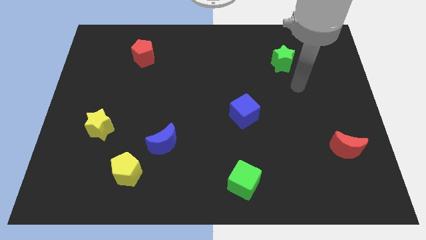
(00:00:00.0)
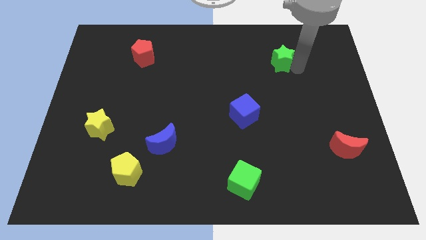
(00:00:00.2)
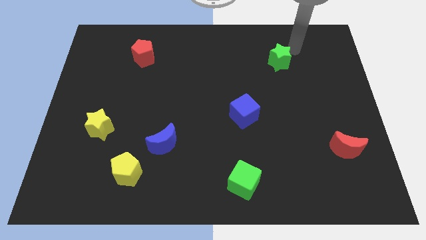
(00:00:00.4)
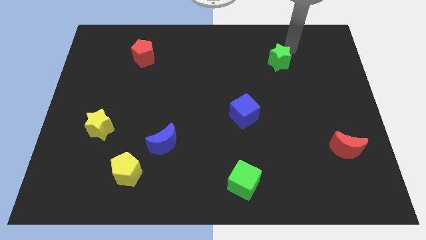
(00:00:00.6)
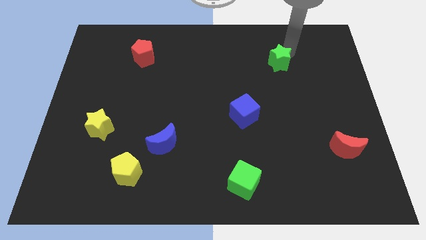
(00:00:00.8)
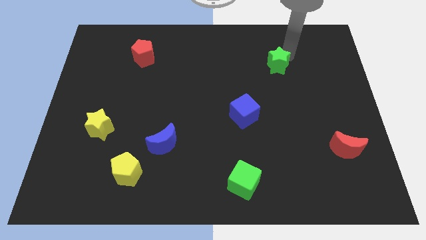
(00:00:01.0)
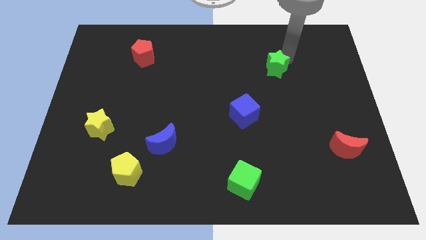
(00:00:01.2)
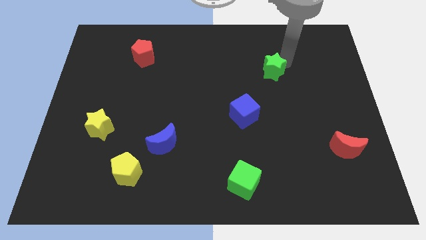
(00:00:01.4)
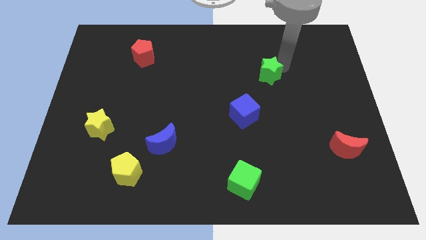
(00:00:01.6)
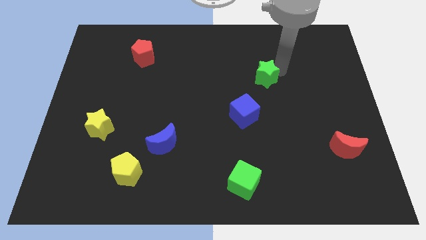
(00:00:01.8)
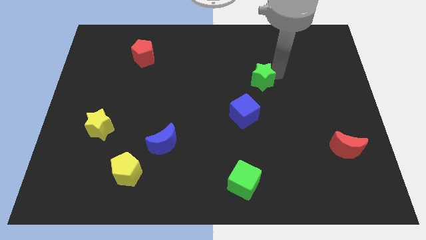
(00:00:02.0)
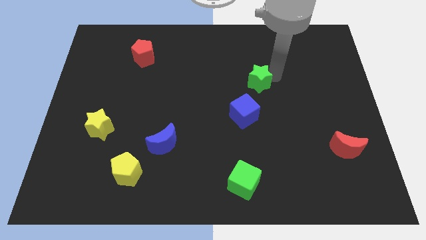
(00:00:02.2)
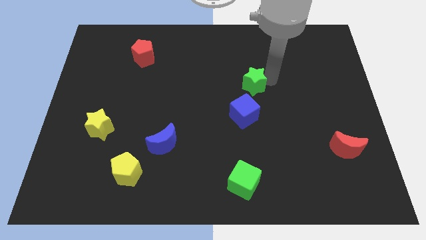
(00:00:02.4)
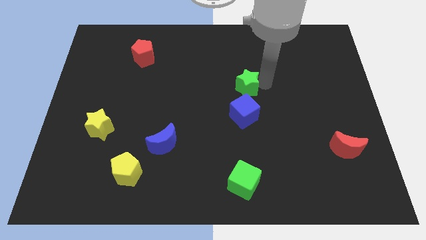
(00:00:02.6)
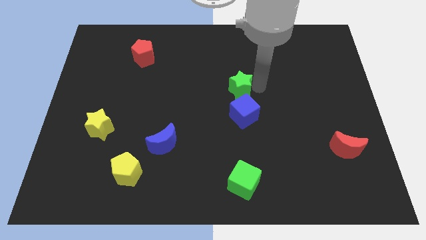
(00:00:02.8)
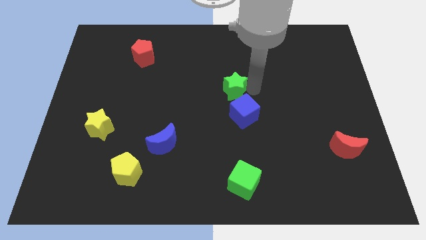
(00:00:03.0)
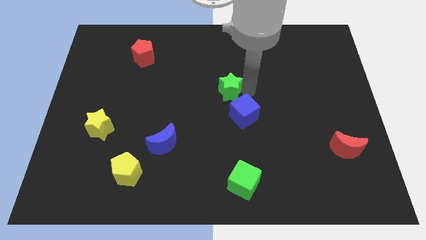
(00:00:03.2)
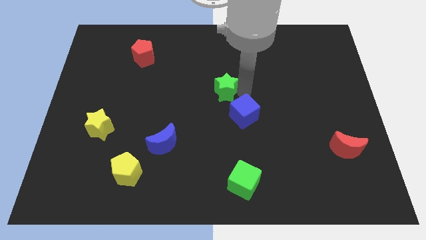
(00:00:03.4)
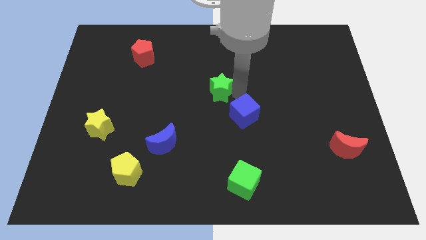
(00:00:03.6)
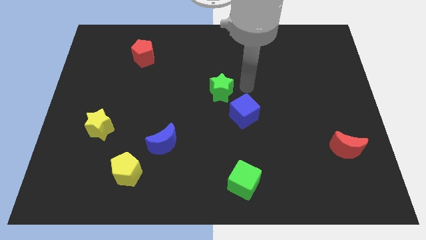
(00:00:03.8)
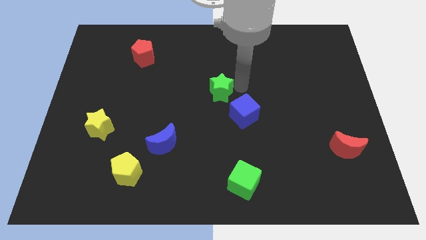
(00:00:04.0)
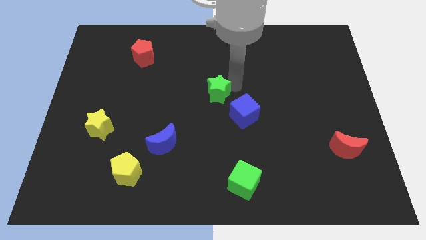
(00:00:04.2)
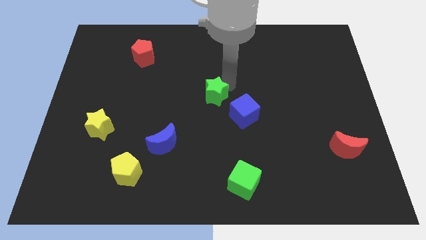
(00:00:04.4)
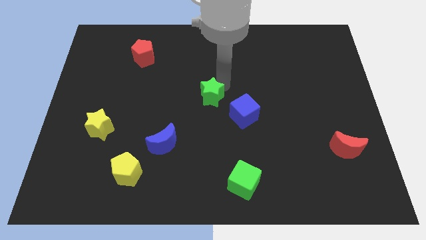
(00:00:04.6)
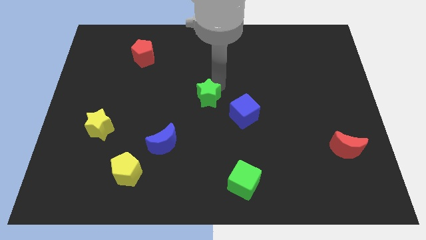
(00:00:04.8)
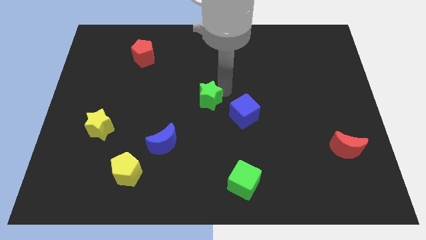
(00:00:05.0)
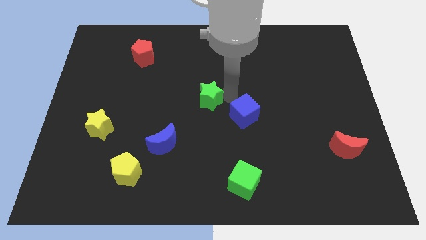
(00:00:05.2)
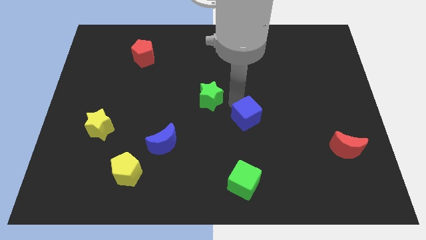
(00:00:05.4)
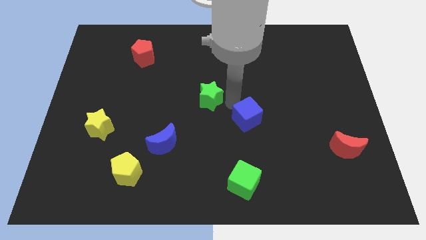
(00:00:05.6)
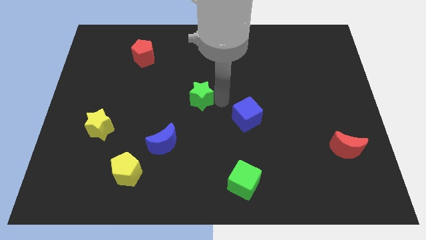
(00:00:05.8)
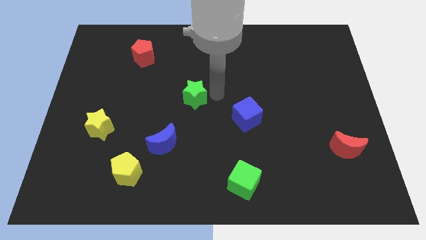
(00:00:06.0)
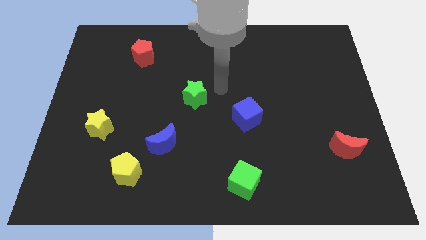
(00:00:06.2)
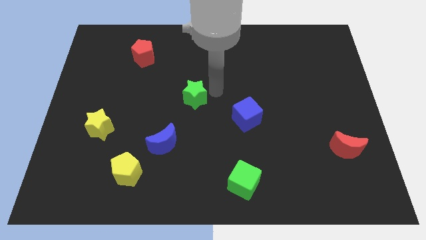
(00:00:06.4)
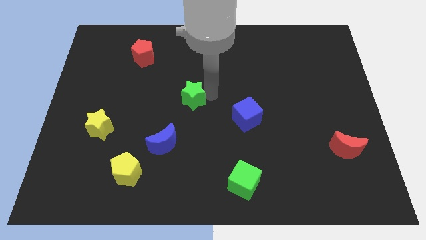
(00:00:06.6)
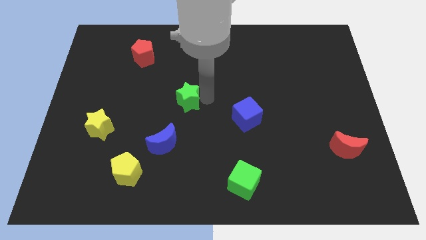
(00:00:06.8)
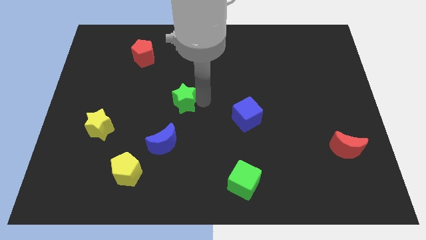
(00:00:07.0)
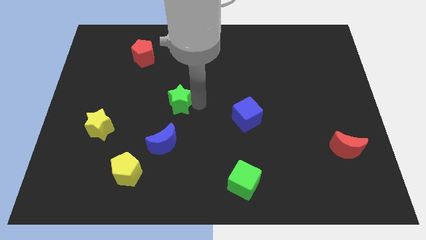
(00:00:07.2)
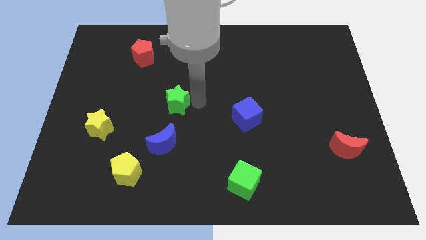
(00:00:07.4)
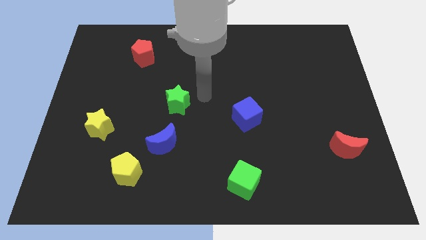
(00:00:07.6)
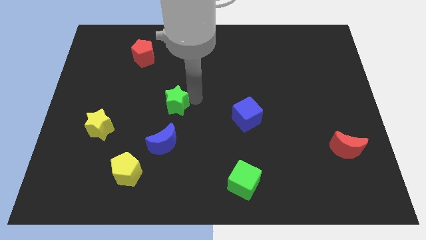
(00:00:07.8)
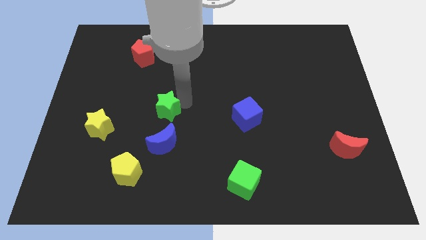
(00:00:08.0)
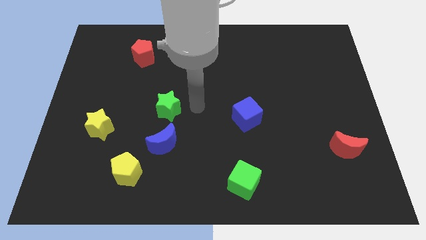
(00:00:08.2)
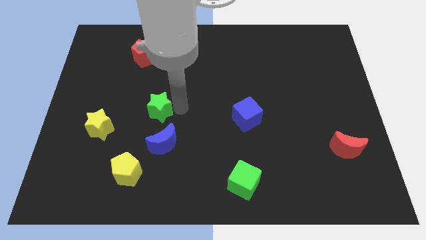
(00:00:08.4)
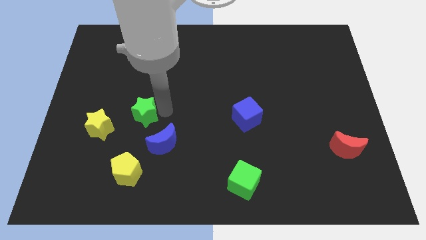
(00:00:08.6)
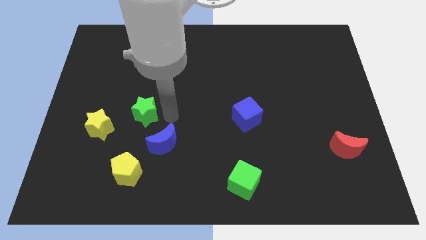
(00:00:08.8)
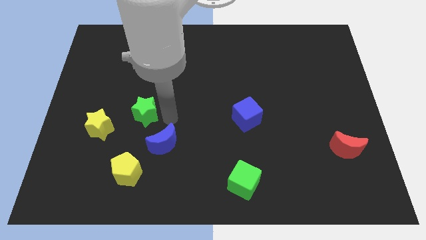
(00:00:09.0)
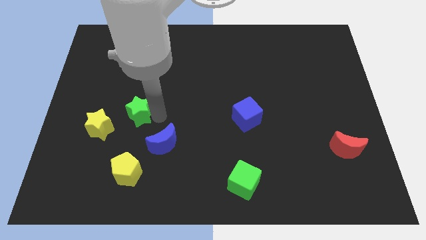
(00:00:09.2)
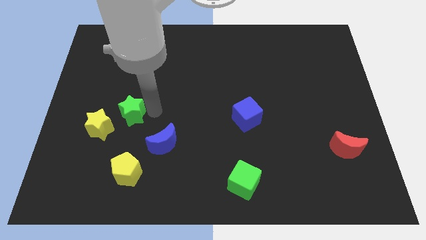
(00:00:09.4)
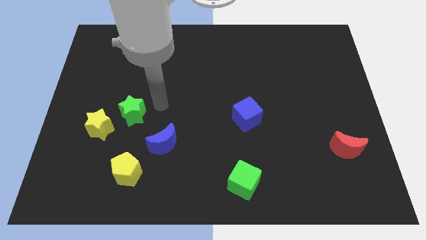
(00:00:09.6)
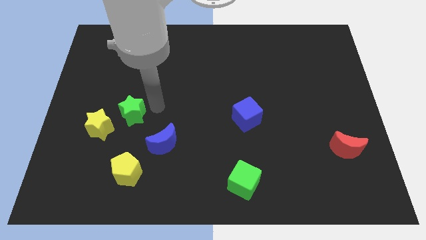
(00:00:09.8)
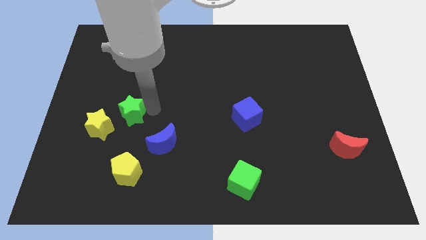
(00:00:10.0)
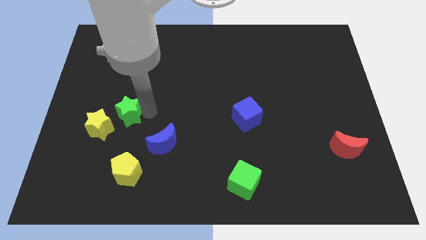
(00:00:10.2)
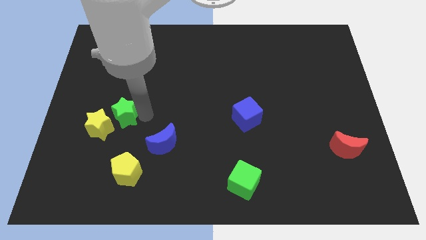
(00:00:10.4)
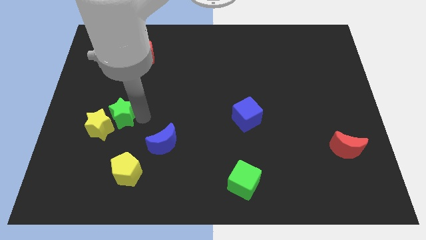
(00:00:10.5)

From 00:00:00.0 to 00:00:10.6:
slide the green star towards the yellow star

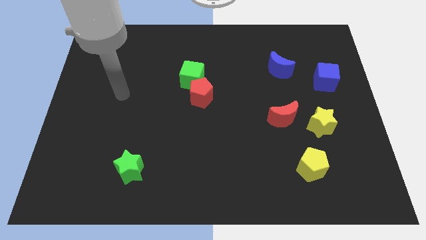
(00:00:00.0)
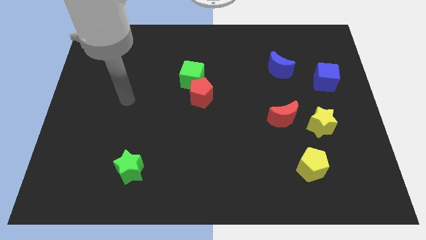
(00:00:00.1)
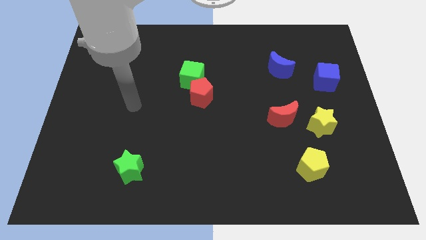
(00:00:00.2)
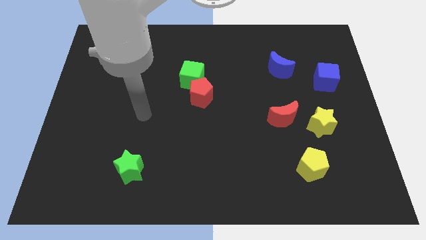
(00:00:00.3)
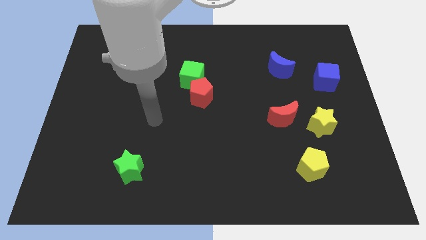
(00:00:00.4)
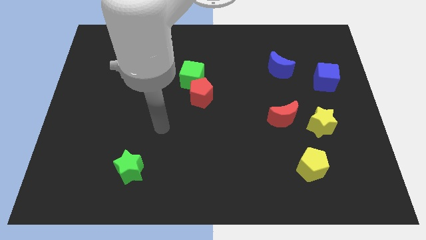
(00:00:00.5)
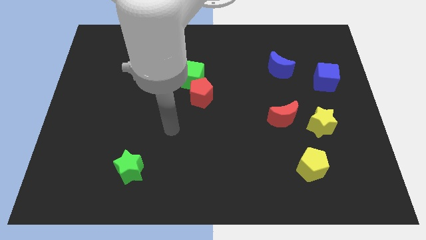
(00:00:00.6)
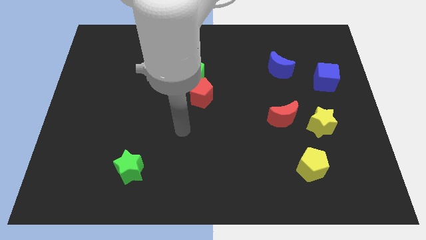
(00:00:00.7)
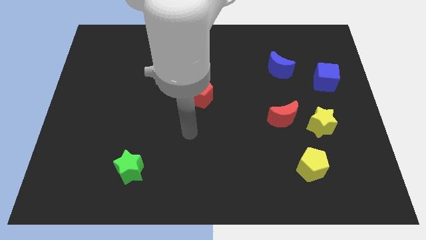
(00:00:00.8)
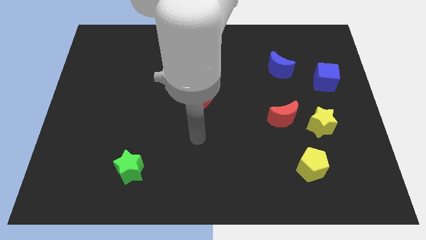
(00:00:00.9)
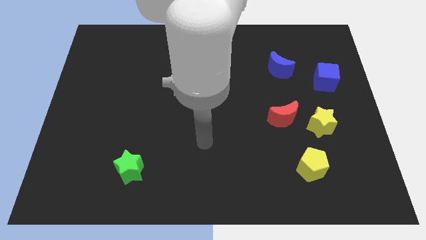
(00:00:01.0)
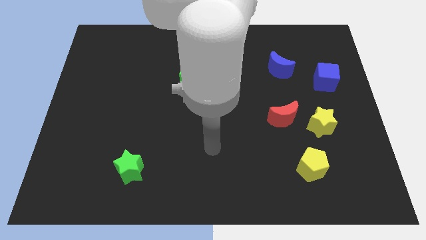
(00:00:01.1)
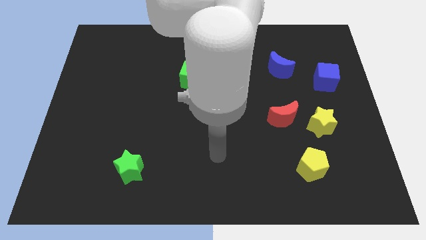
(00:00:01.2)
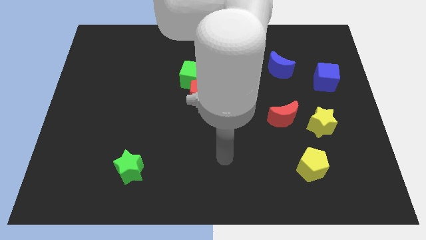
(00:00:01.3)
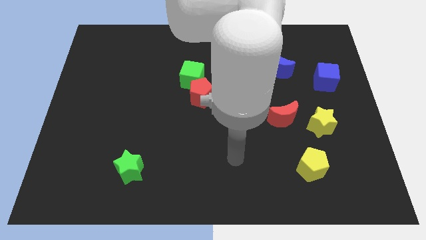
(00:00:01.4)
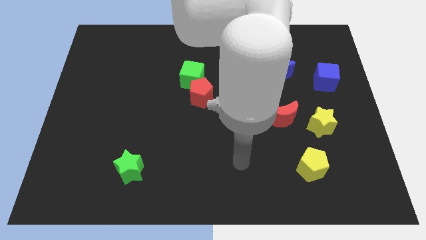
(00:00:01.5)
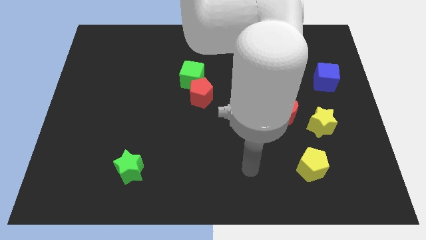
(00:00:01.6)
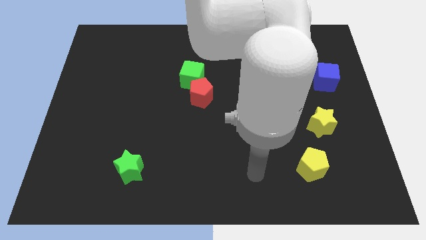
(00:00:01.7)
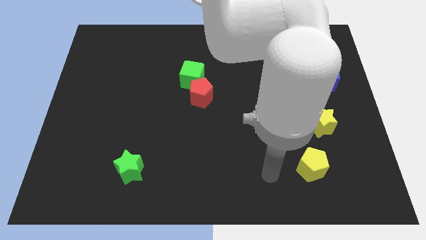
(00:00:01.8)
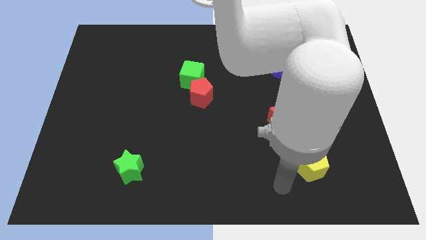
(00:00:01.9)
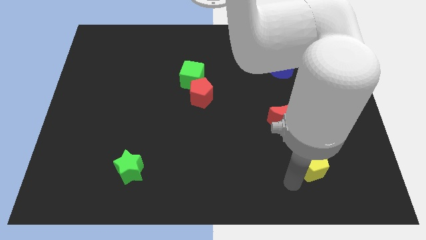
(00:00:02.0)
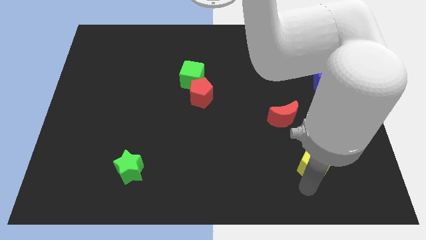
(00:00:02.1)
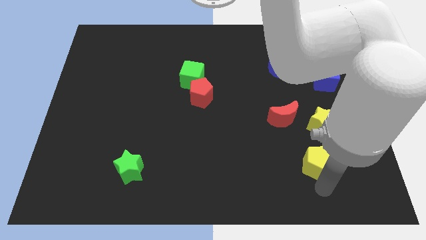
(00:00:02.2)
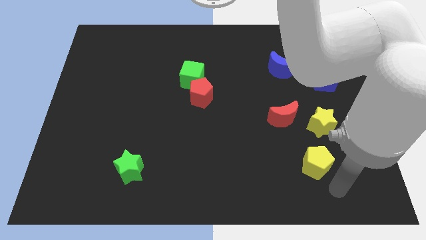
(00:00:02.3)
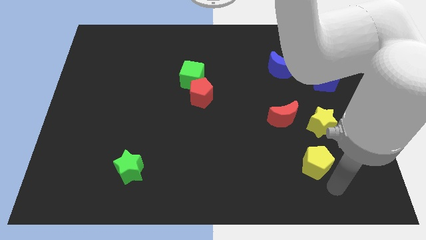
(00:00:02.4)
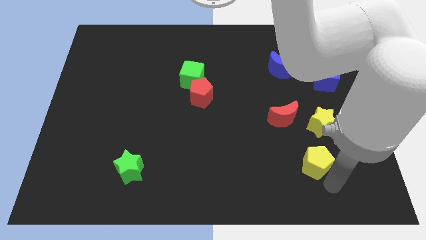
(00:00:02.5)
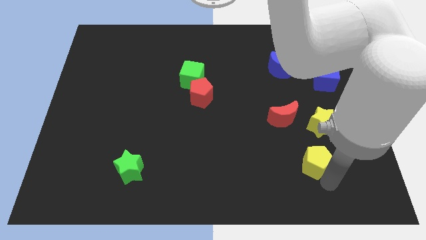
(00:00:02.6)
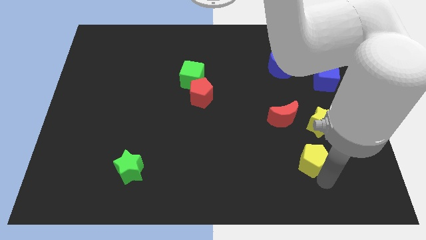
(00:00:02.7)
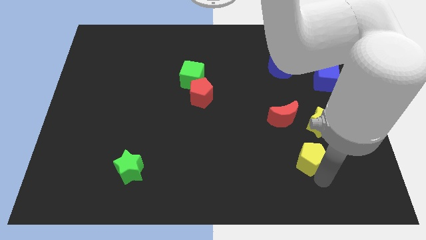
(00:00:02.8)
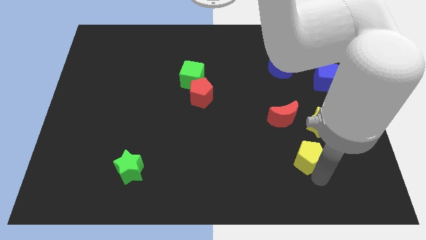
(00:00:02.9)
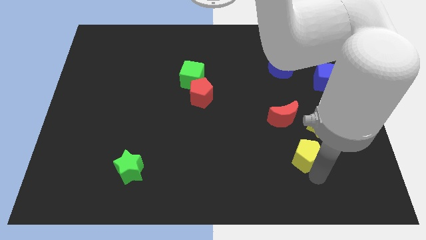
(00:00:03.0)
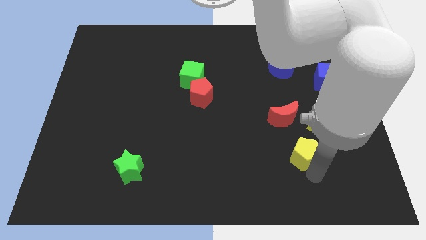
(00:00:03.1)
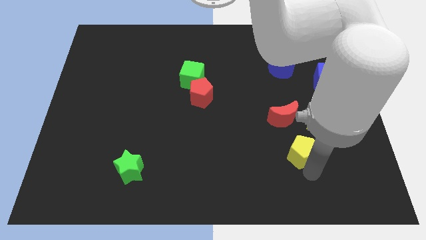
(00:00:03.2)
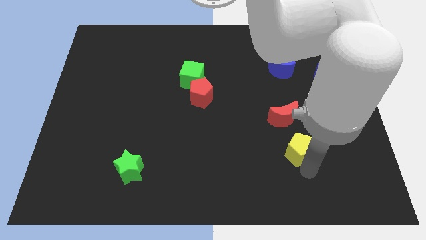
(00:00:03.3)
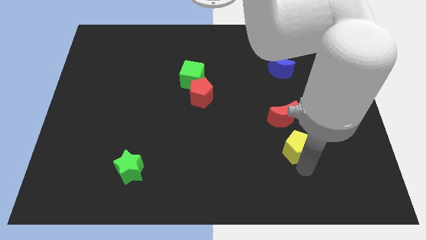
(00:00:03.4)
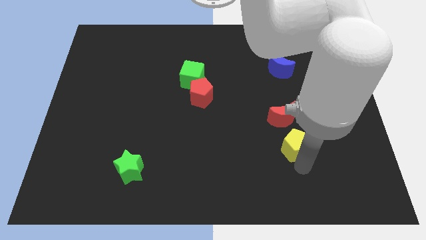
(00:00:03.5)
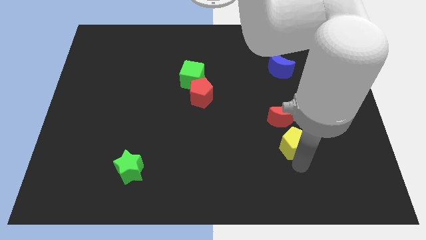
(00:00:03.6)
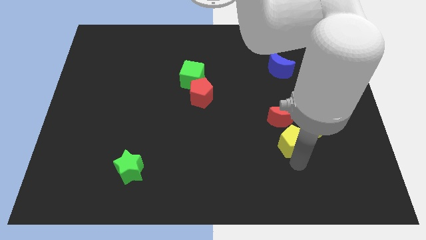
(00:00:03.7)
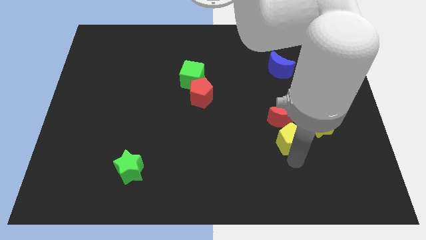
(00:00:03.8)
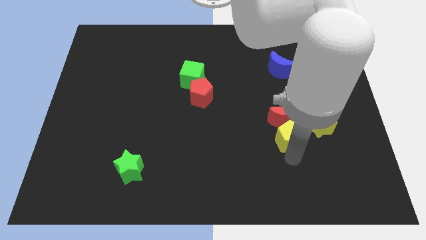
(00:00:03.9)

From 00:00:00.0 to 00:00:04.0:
push the yellow pentagon next to the red moon
